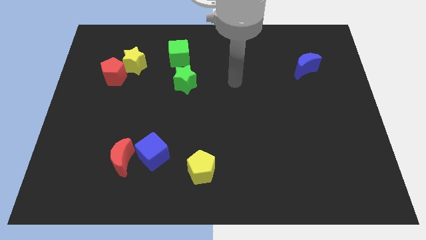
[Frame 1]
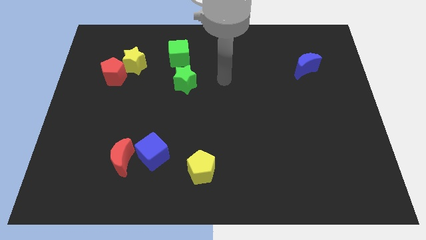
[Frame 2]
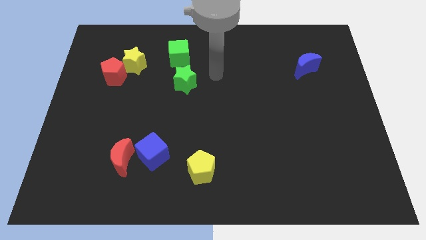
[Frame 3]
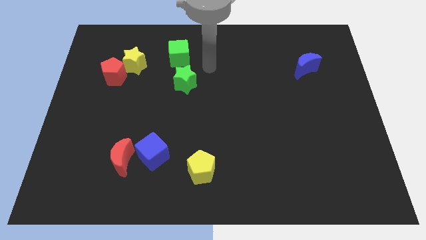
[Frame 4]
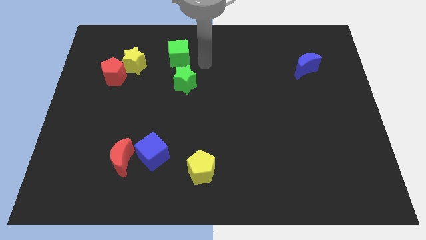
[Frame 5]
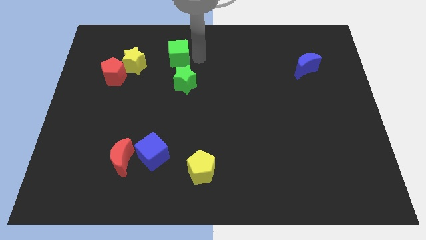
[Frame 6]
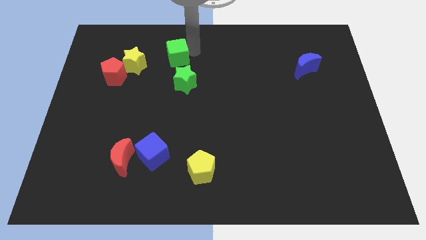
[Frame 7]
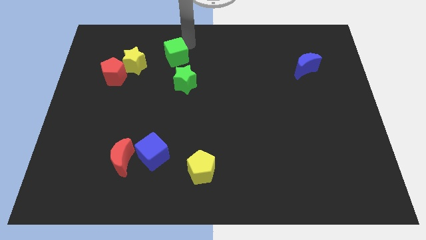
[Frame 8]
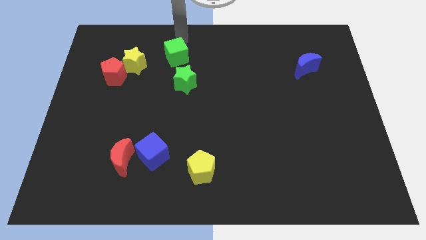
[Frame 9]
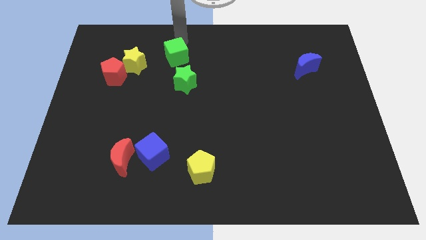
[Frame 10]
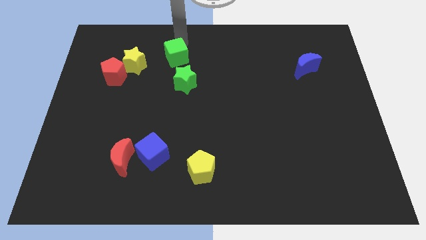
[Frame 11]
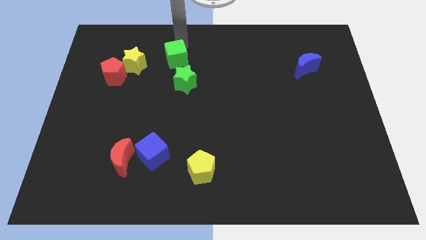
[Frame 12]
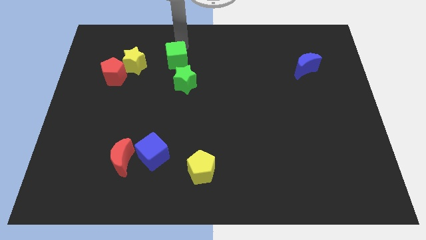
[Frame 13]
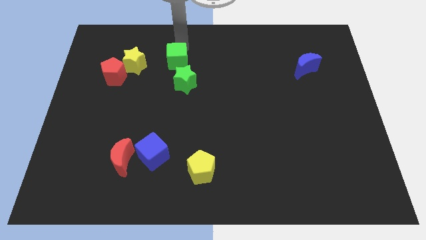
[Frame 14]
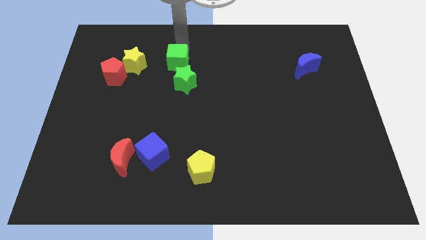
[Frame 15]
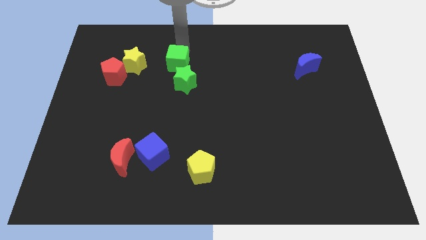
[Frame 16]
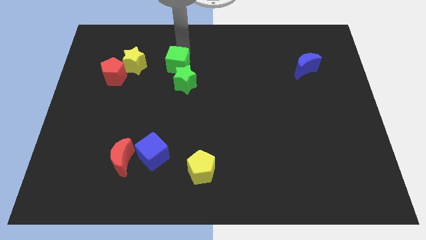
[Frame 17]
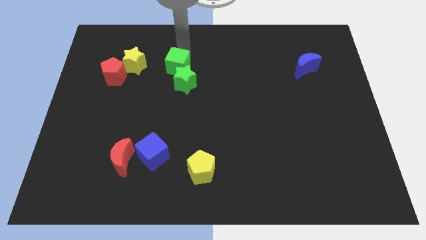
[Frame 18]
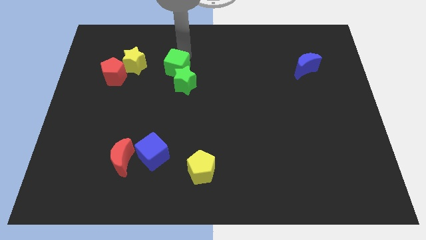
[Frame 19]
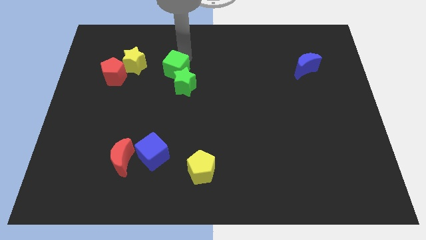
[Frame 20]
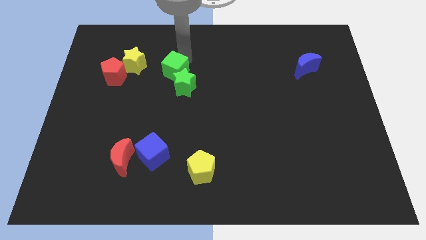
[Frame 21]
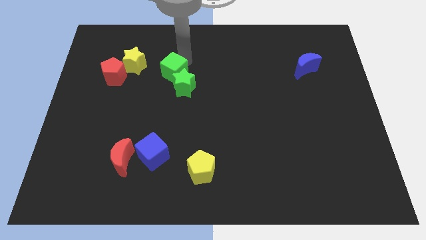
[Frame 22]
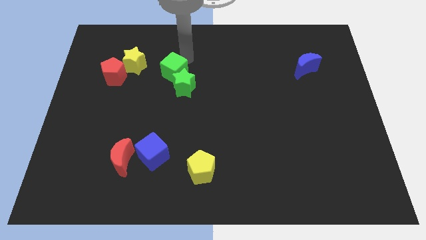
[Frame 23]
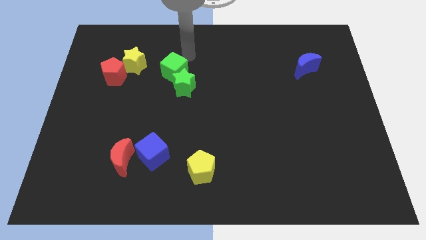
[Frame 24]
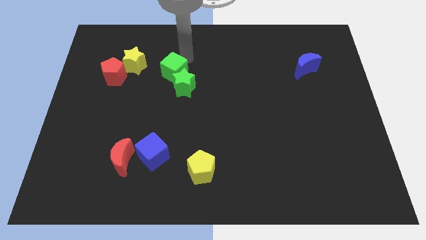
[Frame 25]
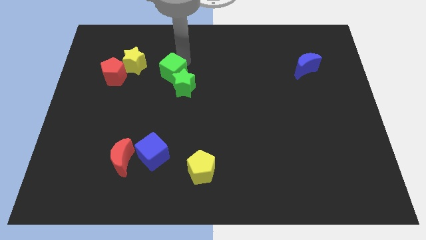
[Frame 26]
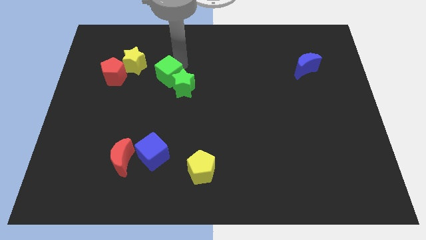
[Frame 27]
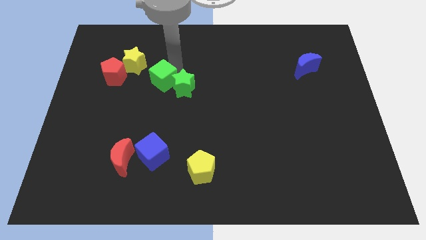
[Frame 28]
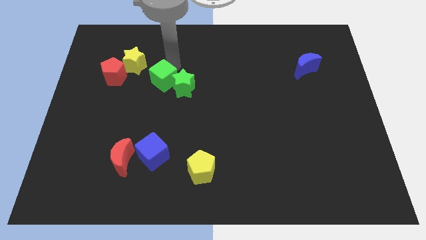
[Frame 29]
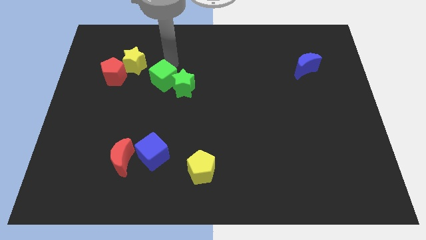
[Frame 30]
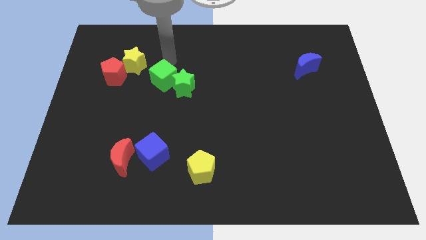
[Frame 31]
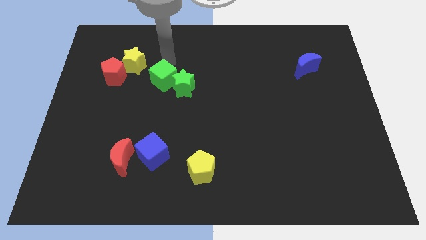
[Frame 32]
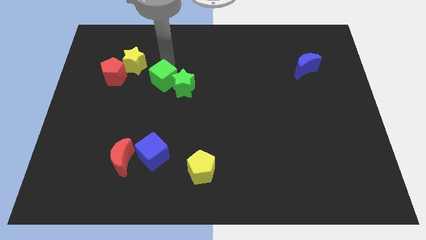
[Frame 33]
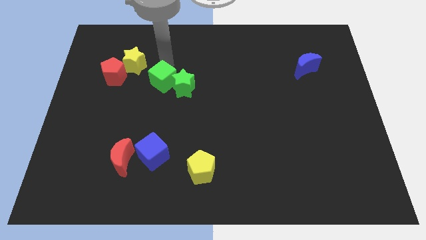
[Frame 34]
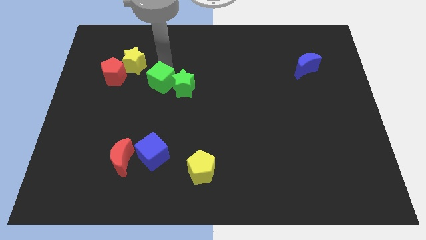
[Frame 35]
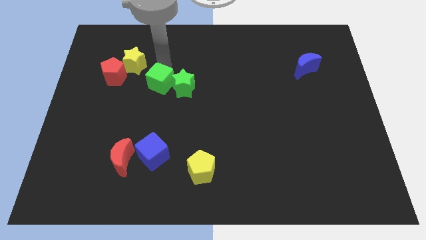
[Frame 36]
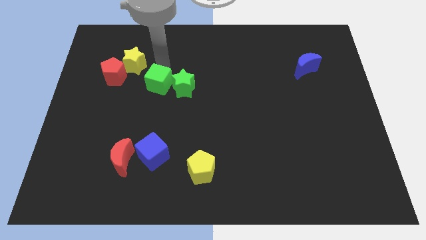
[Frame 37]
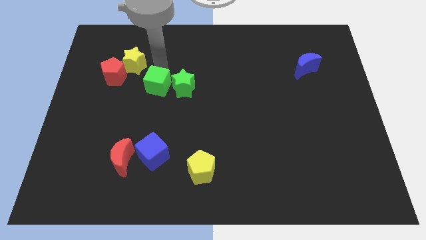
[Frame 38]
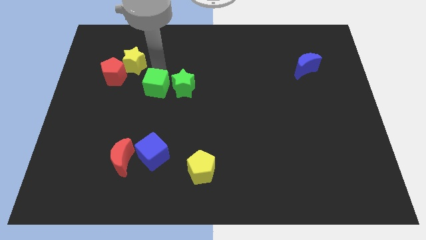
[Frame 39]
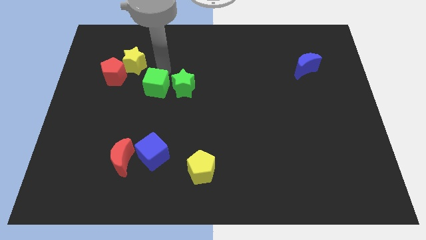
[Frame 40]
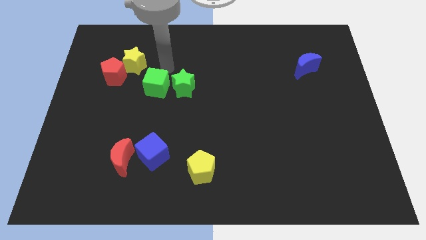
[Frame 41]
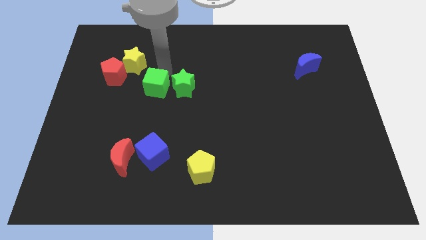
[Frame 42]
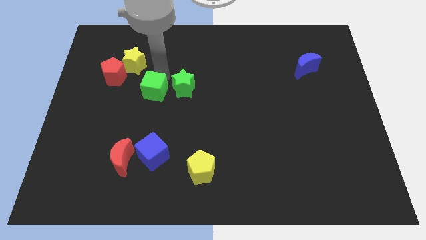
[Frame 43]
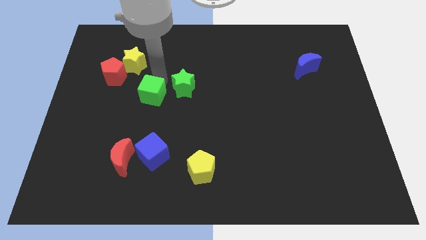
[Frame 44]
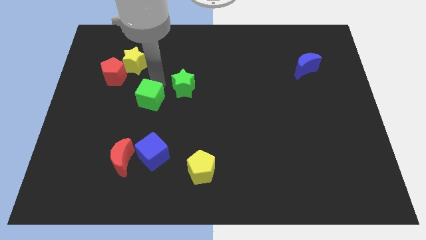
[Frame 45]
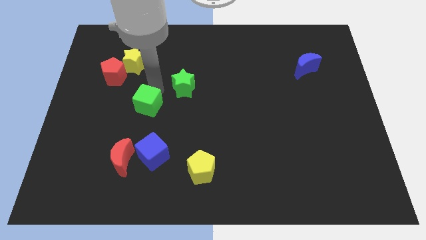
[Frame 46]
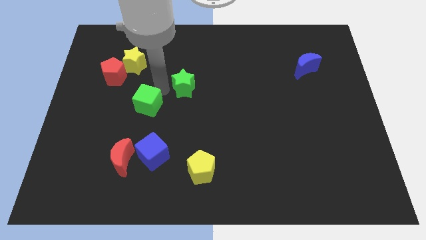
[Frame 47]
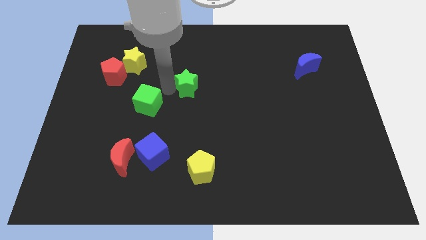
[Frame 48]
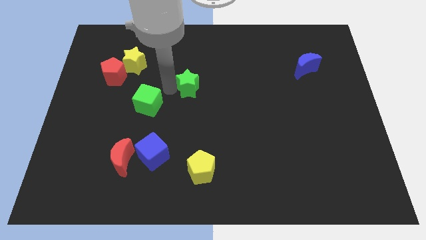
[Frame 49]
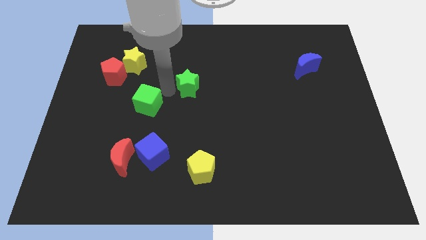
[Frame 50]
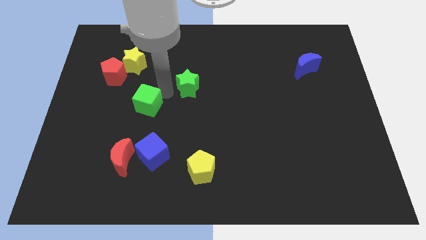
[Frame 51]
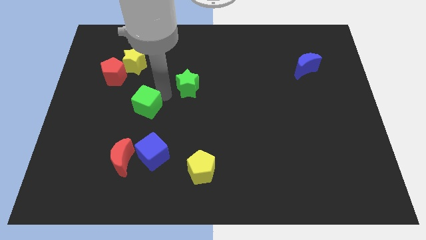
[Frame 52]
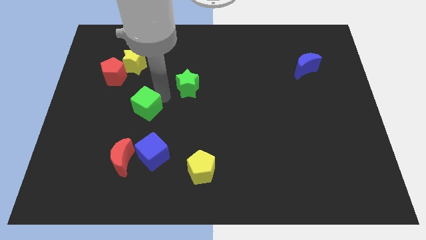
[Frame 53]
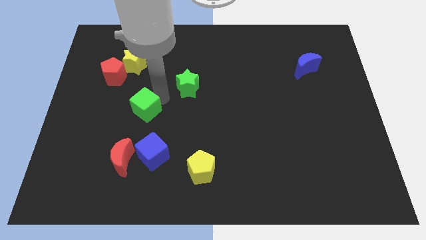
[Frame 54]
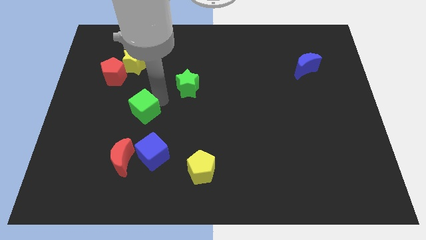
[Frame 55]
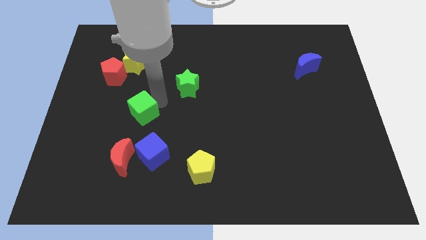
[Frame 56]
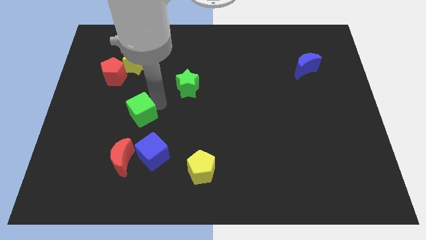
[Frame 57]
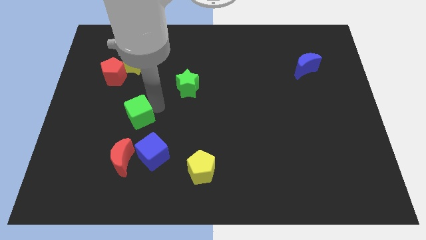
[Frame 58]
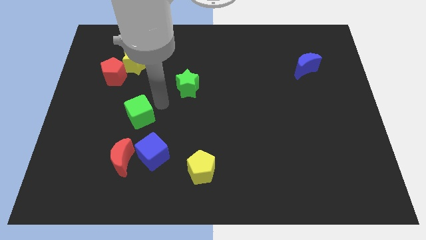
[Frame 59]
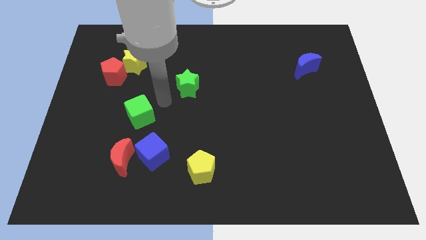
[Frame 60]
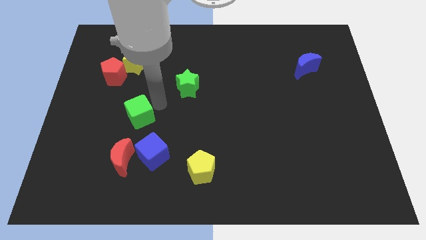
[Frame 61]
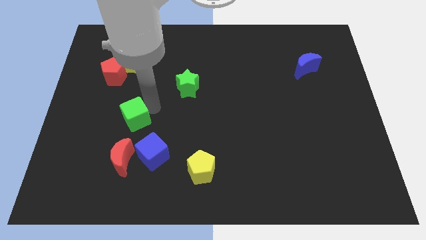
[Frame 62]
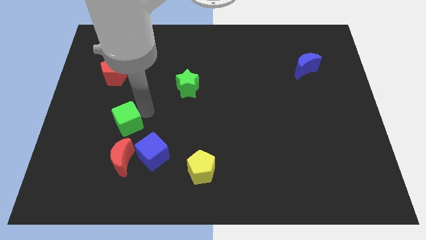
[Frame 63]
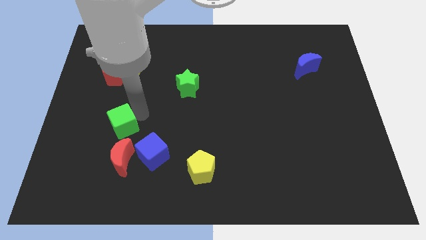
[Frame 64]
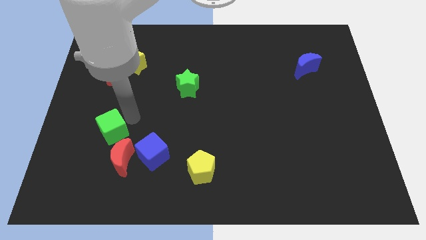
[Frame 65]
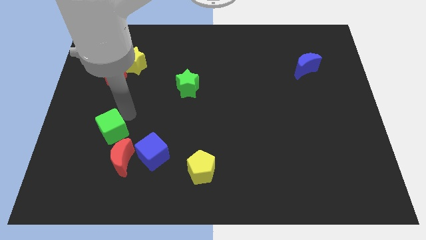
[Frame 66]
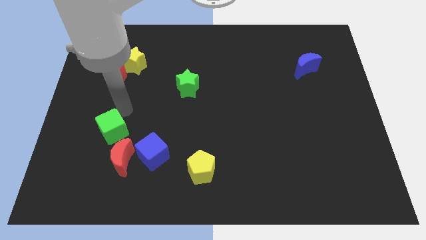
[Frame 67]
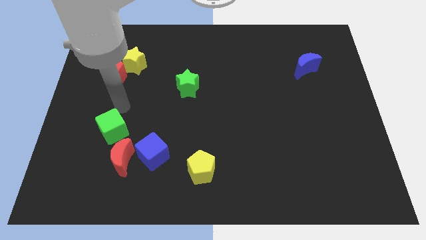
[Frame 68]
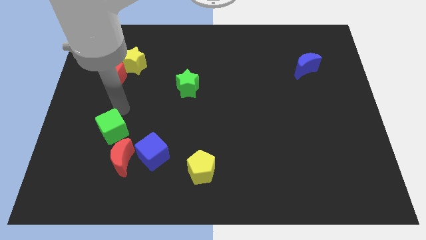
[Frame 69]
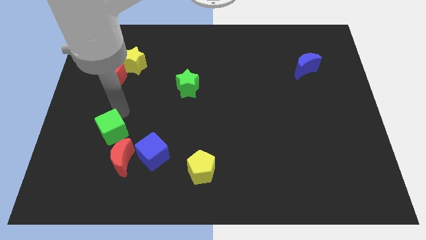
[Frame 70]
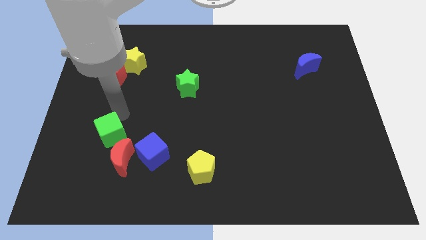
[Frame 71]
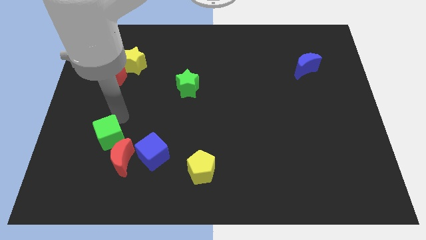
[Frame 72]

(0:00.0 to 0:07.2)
push the green cube left of the blue cube

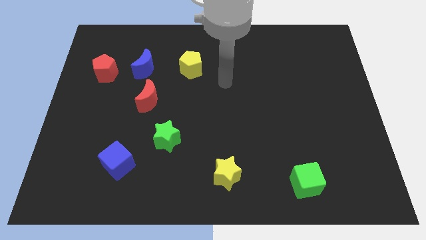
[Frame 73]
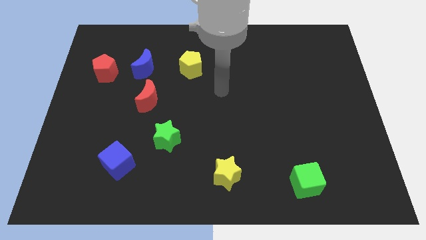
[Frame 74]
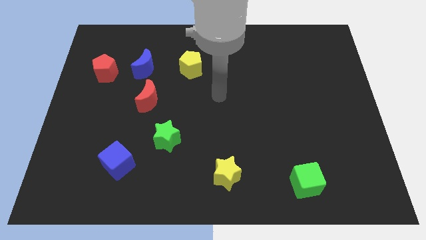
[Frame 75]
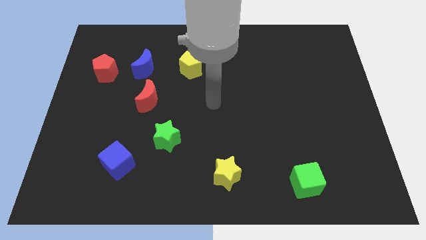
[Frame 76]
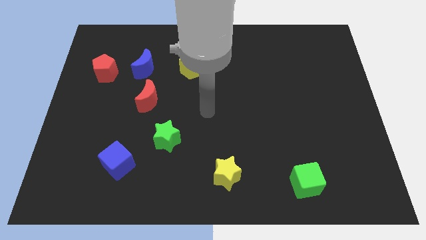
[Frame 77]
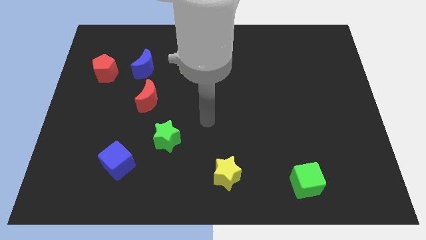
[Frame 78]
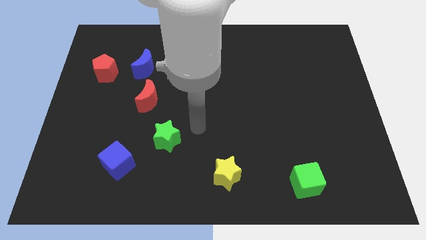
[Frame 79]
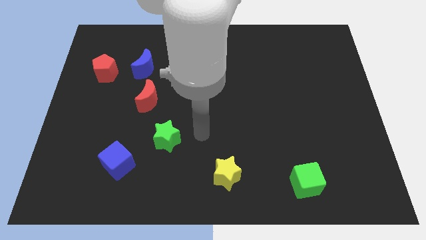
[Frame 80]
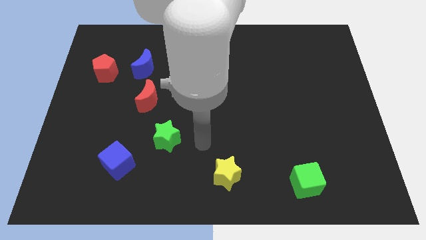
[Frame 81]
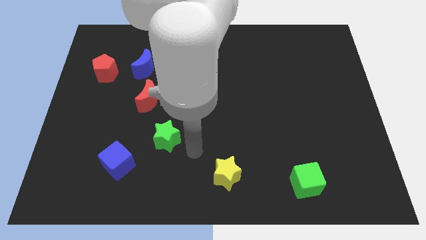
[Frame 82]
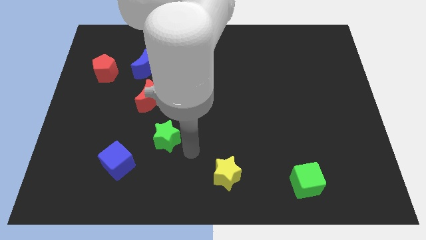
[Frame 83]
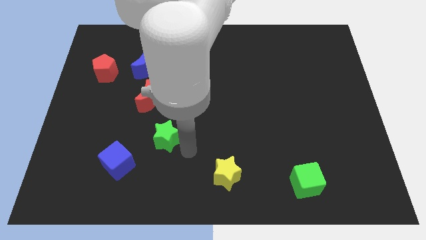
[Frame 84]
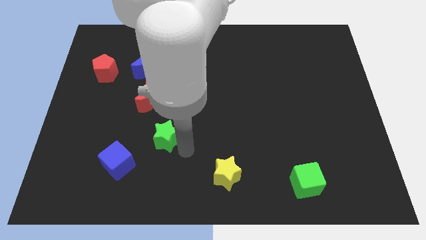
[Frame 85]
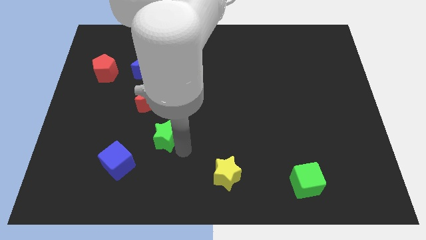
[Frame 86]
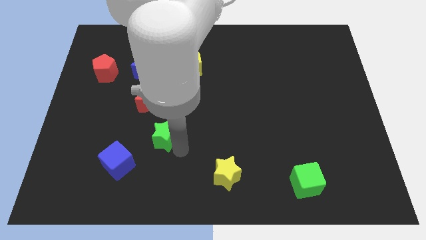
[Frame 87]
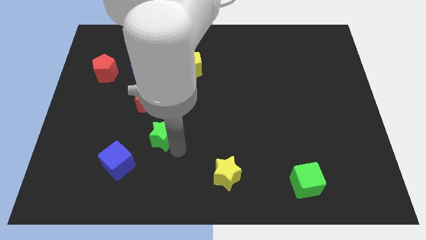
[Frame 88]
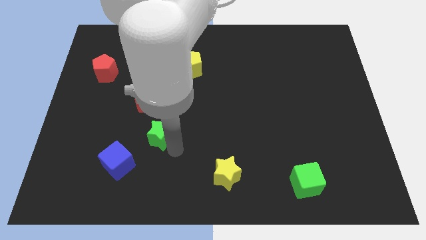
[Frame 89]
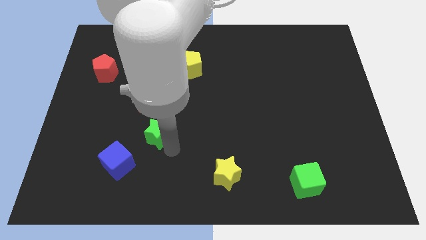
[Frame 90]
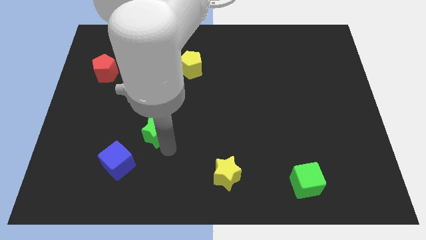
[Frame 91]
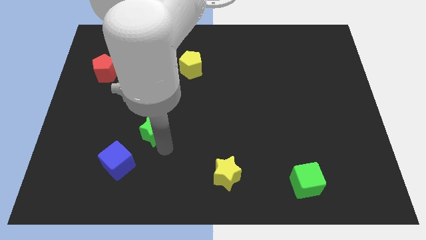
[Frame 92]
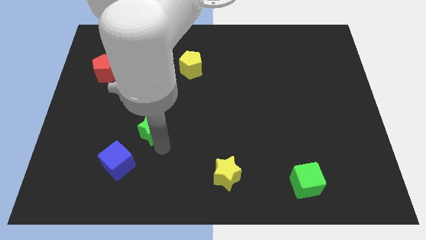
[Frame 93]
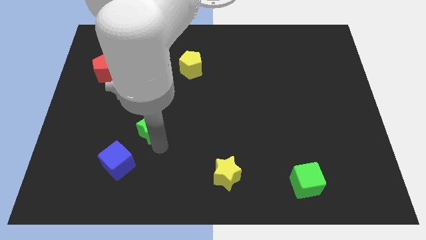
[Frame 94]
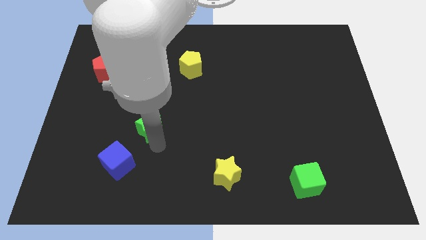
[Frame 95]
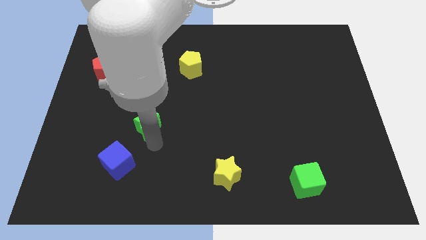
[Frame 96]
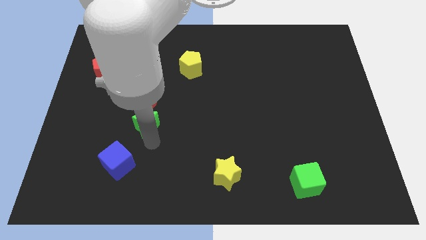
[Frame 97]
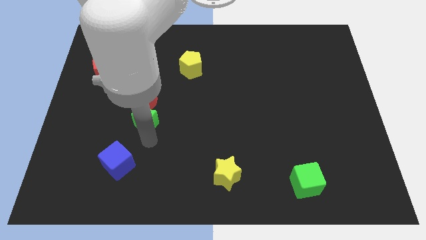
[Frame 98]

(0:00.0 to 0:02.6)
move the green star diagonally down and to the left of the red moon
